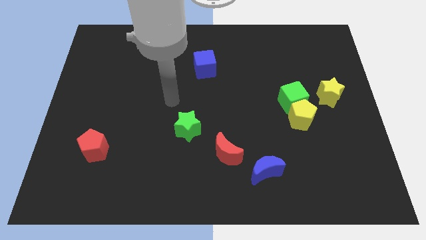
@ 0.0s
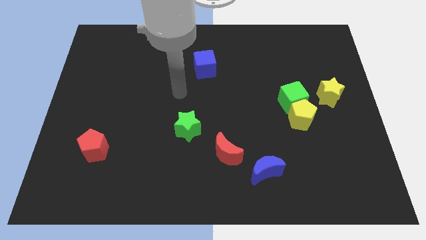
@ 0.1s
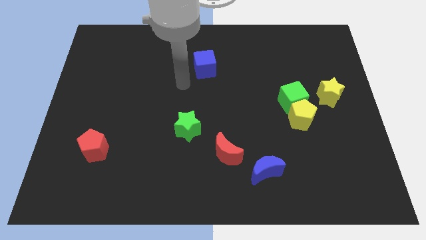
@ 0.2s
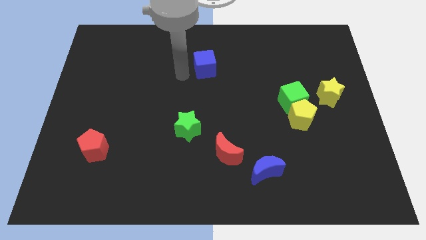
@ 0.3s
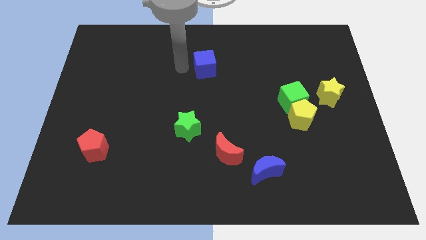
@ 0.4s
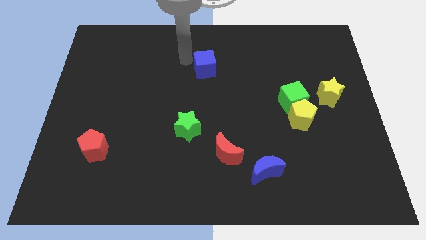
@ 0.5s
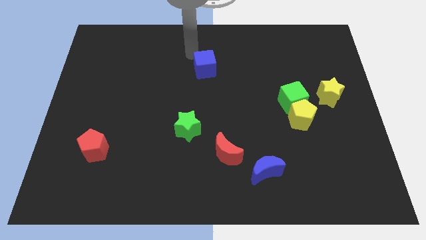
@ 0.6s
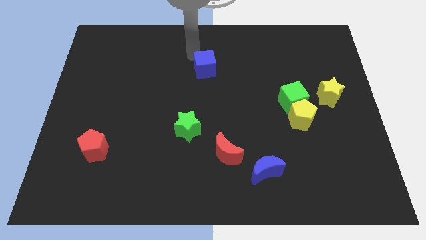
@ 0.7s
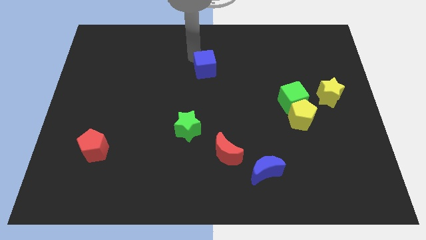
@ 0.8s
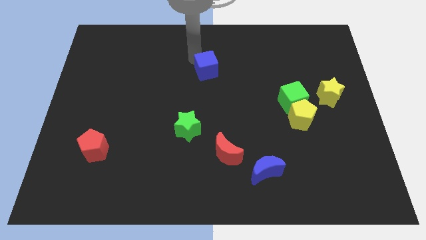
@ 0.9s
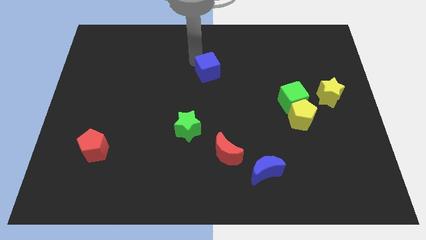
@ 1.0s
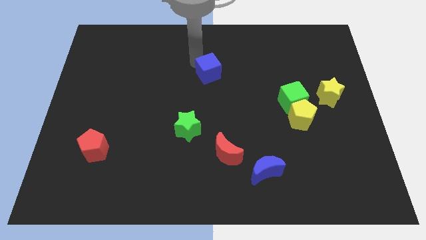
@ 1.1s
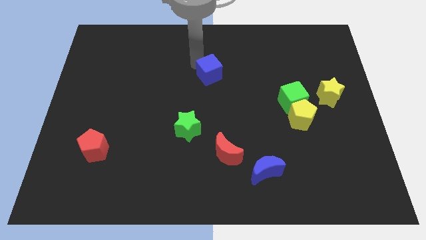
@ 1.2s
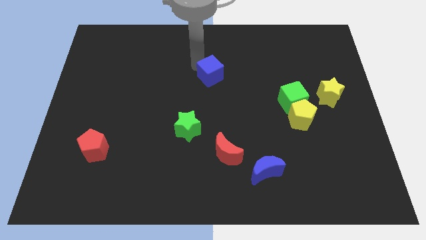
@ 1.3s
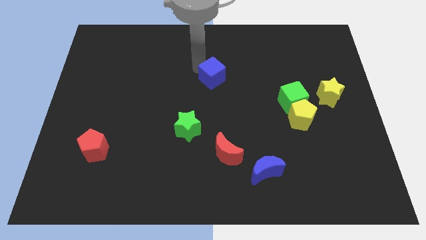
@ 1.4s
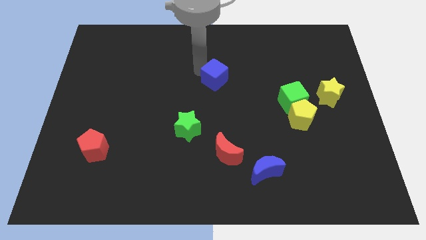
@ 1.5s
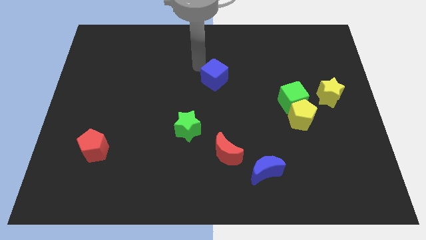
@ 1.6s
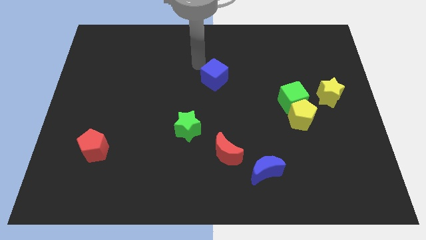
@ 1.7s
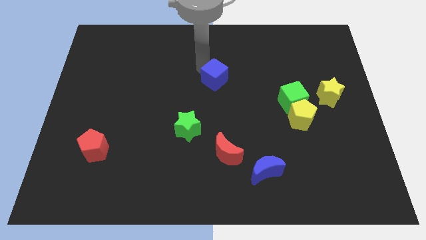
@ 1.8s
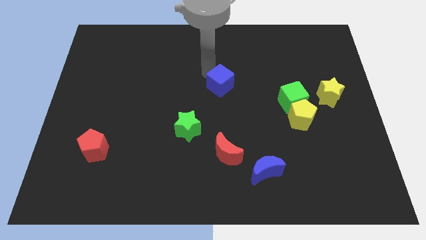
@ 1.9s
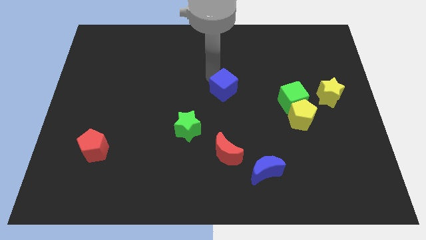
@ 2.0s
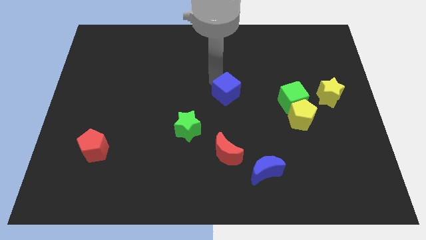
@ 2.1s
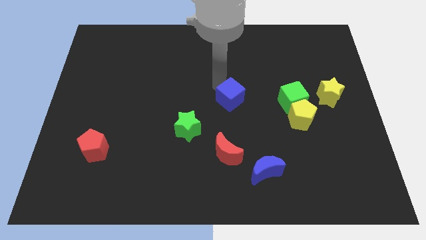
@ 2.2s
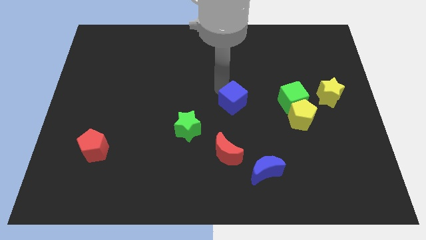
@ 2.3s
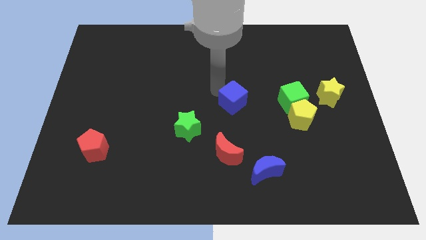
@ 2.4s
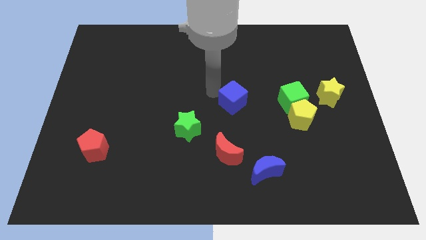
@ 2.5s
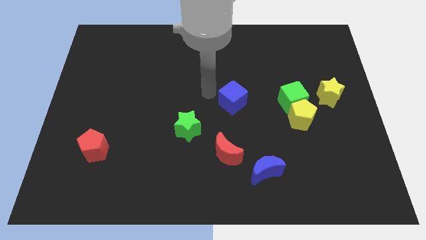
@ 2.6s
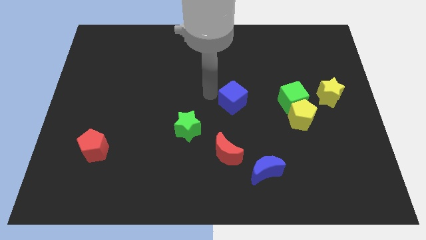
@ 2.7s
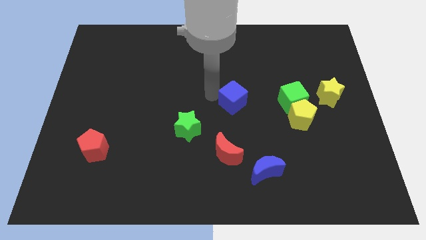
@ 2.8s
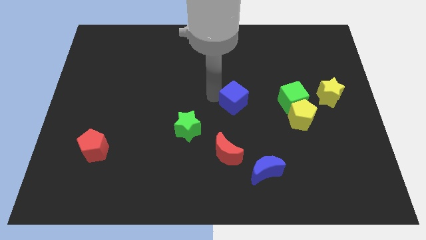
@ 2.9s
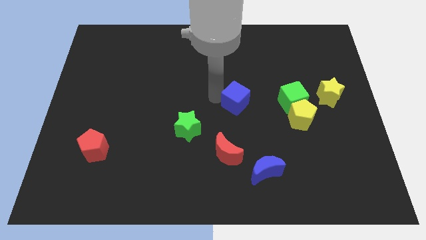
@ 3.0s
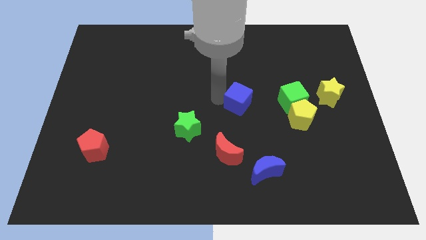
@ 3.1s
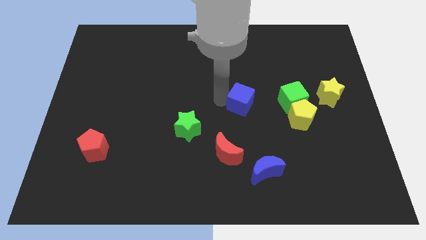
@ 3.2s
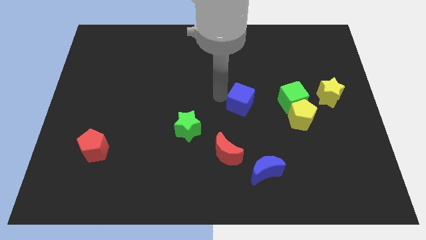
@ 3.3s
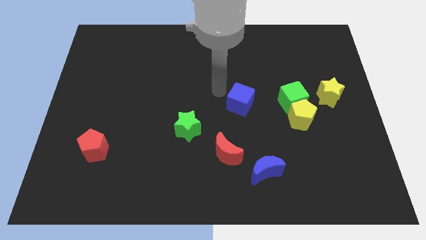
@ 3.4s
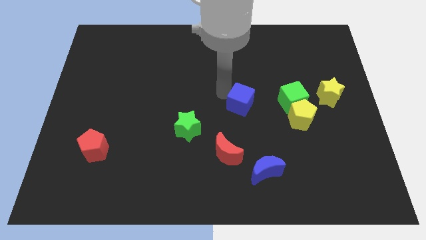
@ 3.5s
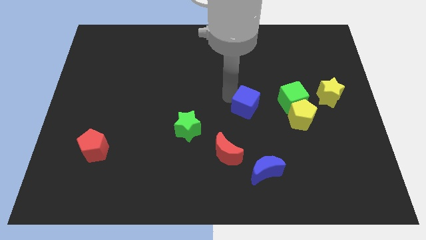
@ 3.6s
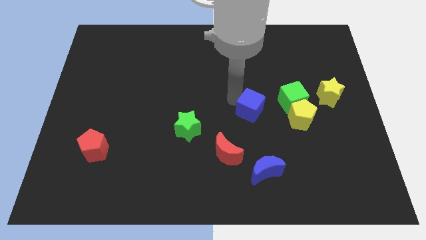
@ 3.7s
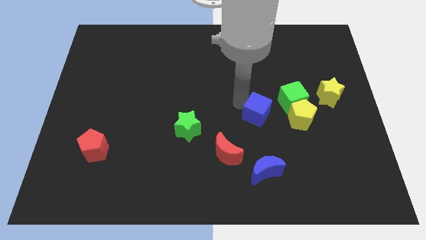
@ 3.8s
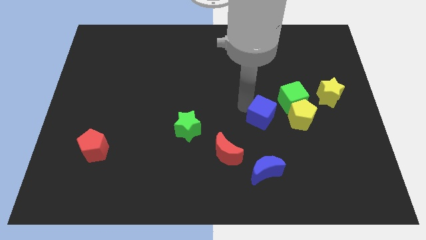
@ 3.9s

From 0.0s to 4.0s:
push the blue cube down and right diagonally

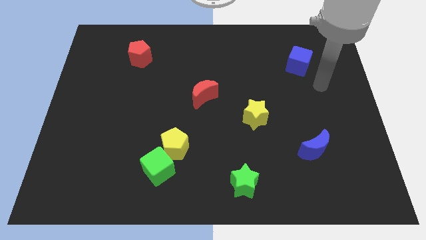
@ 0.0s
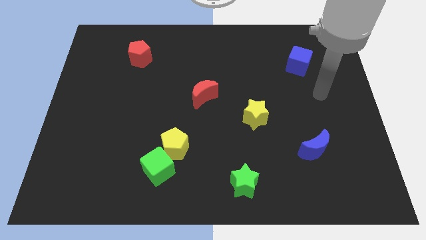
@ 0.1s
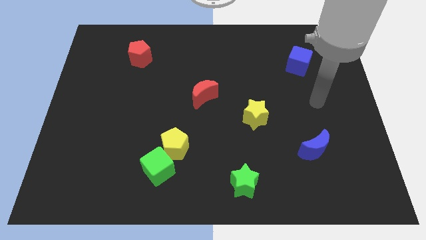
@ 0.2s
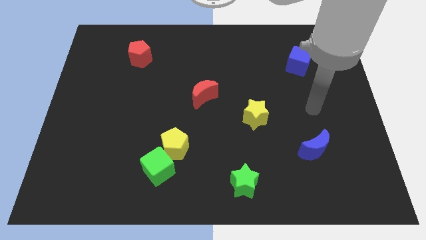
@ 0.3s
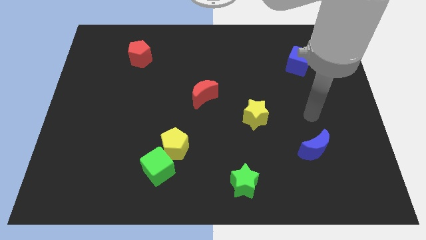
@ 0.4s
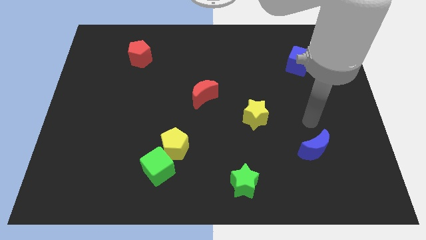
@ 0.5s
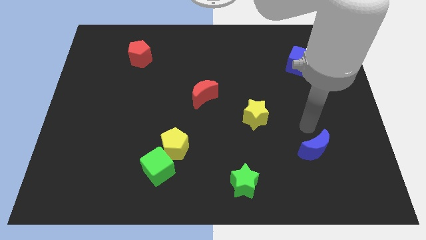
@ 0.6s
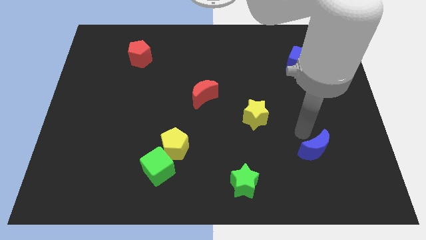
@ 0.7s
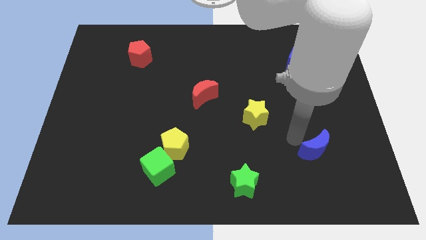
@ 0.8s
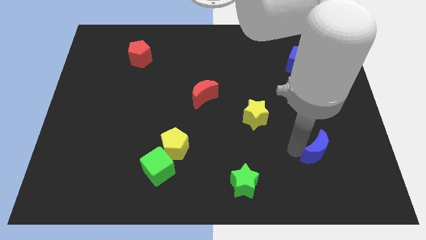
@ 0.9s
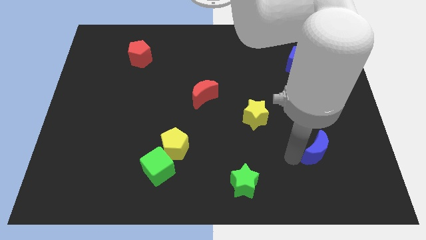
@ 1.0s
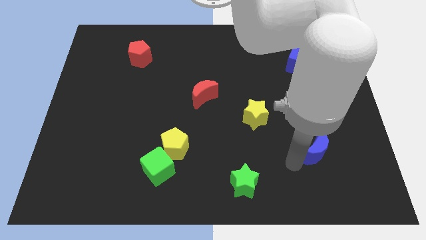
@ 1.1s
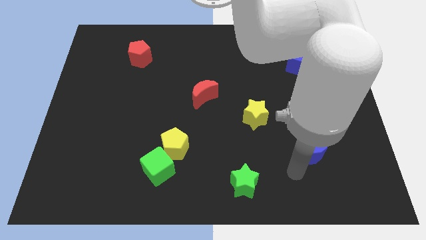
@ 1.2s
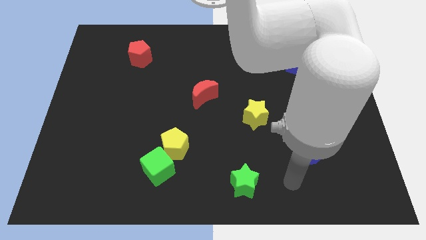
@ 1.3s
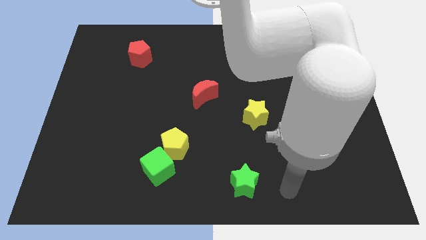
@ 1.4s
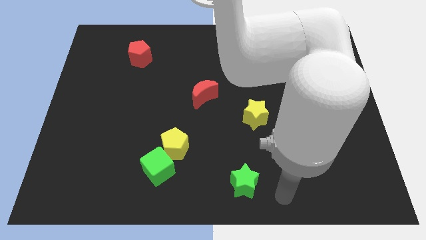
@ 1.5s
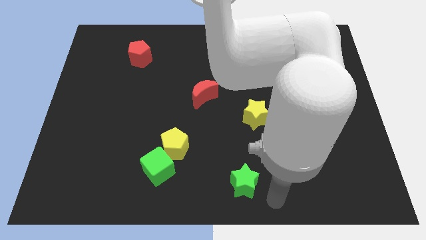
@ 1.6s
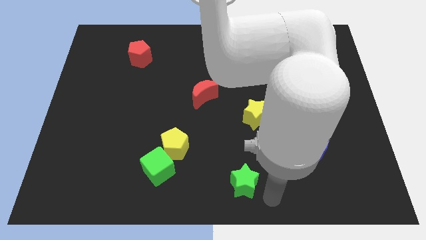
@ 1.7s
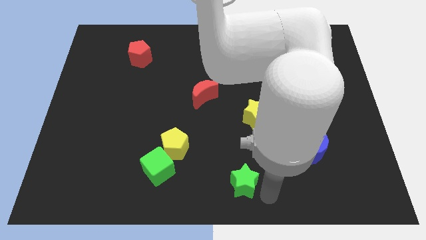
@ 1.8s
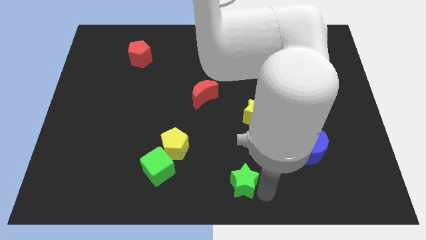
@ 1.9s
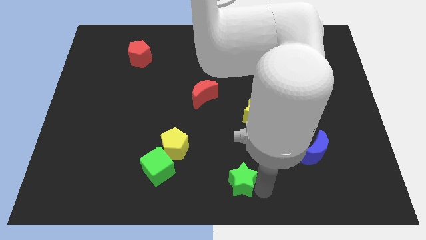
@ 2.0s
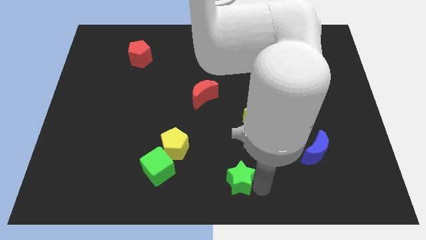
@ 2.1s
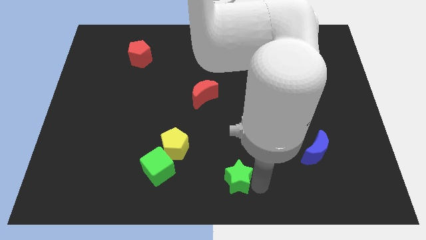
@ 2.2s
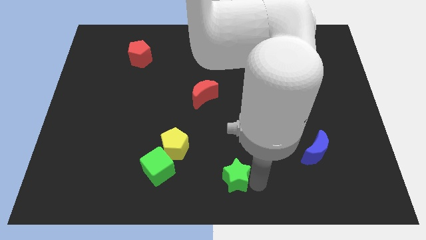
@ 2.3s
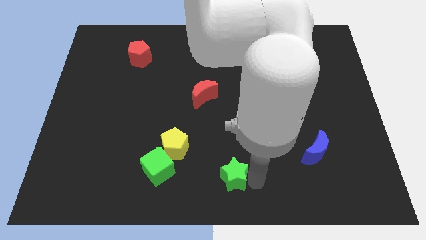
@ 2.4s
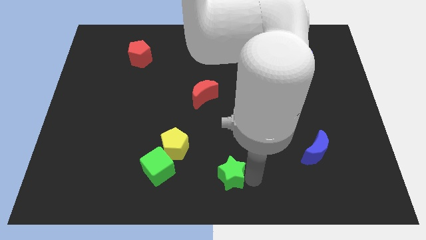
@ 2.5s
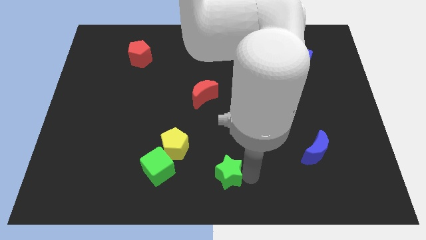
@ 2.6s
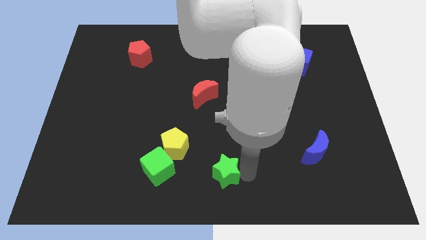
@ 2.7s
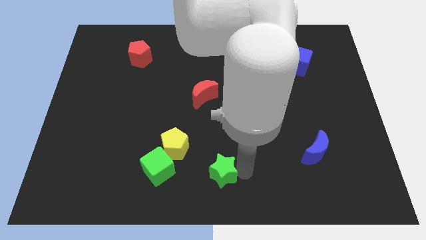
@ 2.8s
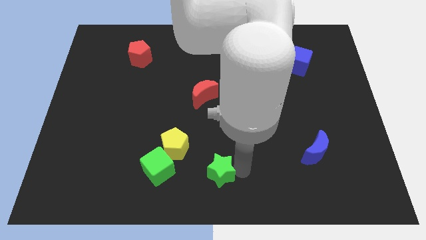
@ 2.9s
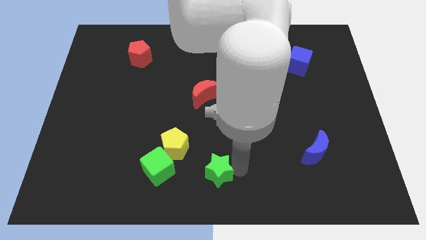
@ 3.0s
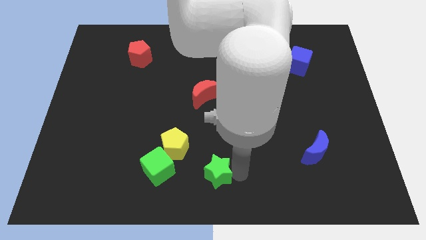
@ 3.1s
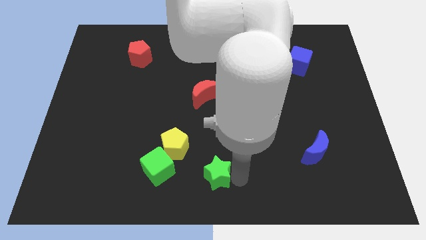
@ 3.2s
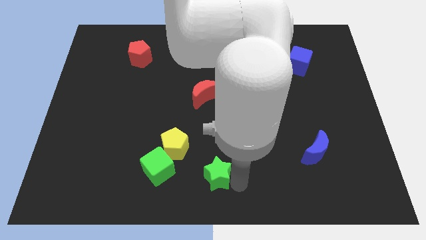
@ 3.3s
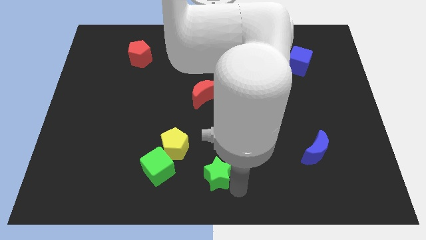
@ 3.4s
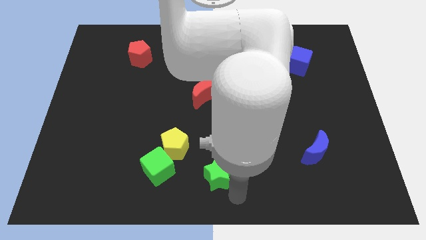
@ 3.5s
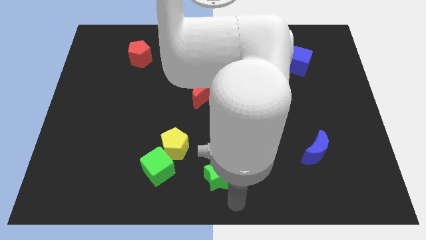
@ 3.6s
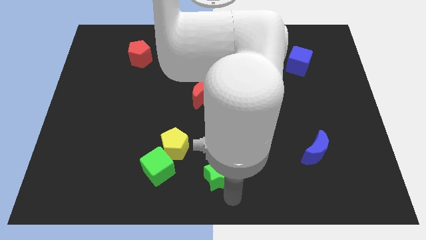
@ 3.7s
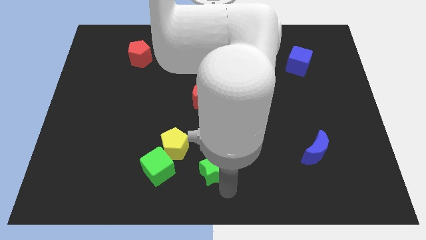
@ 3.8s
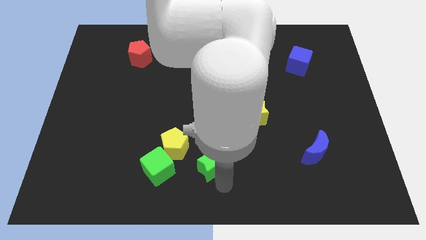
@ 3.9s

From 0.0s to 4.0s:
push the green star upwards and to the left a bit

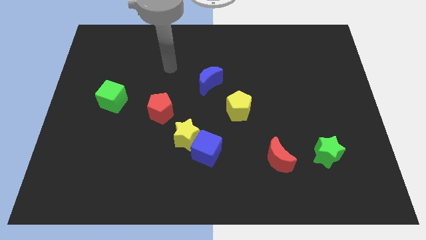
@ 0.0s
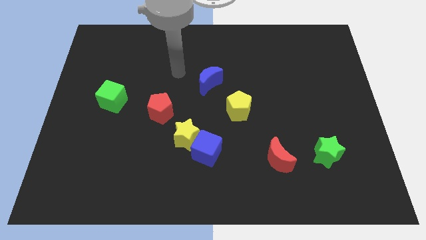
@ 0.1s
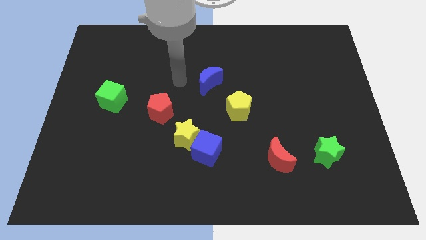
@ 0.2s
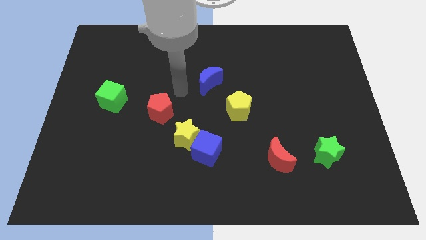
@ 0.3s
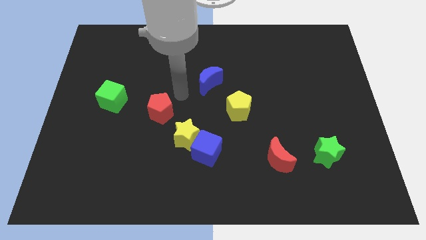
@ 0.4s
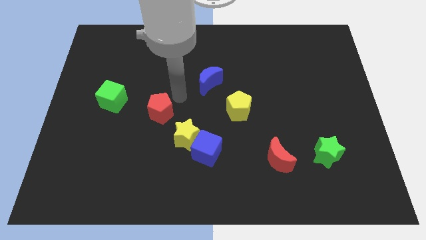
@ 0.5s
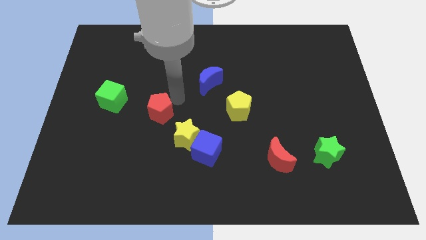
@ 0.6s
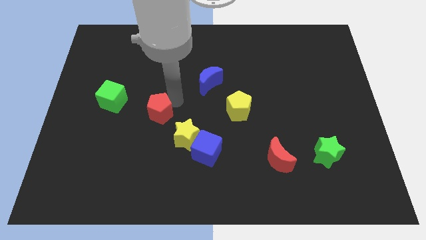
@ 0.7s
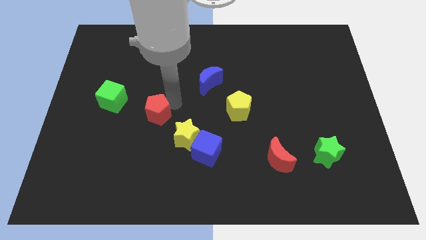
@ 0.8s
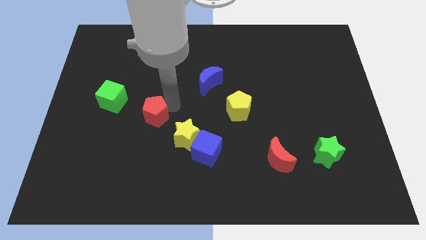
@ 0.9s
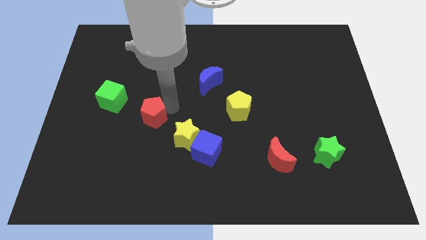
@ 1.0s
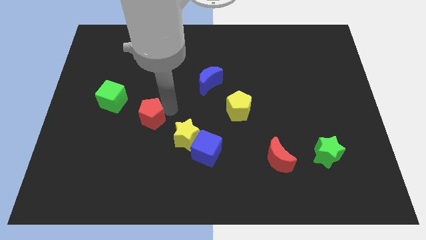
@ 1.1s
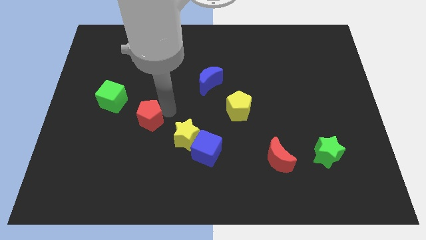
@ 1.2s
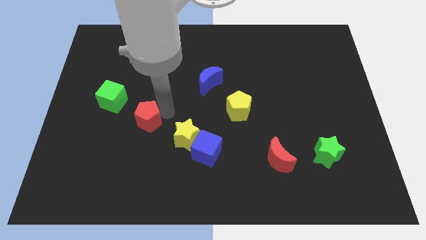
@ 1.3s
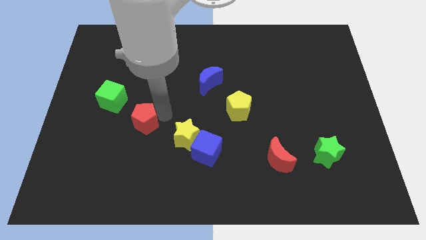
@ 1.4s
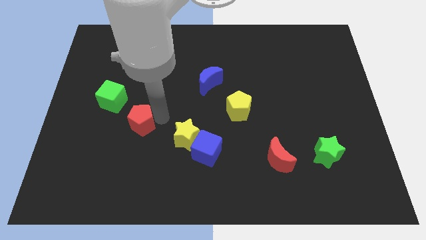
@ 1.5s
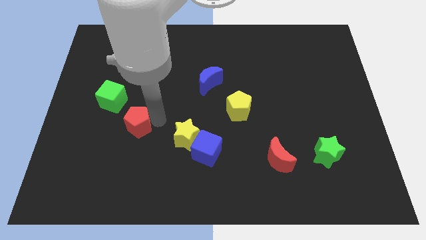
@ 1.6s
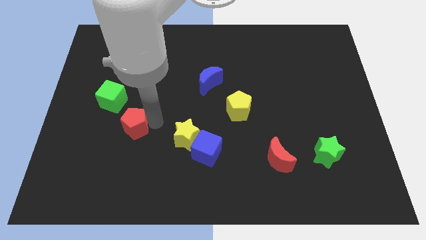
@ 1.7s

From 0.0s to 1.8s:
move the red pentagon somewhat diagonally down and to the left
